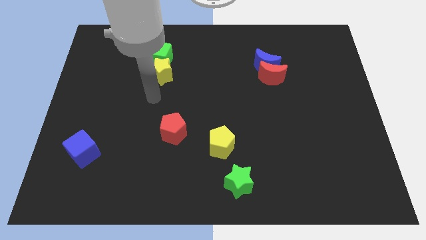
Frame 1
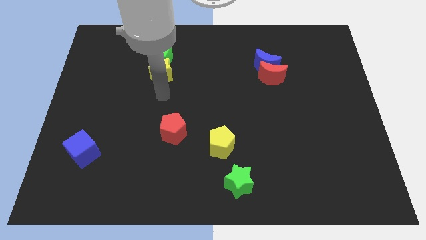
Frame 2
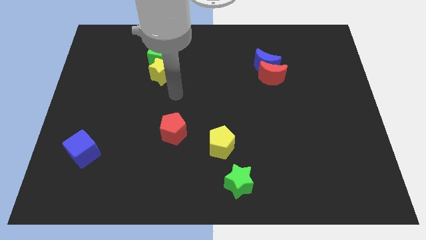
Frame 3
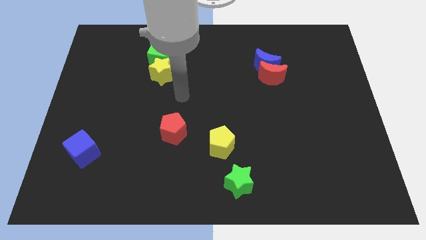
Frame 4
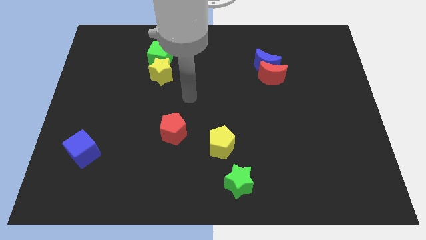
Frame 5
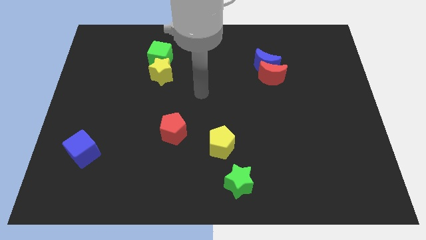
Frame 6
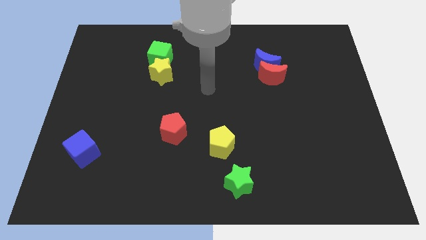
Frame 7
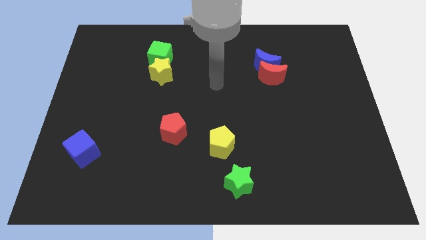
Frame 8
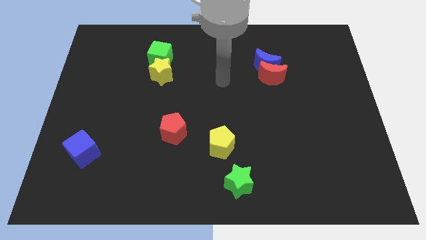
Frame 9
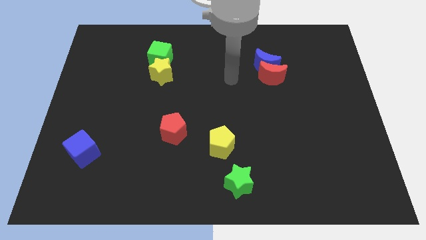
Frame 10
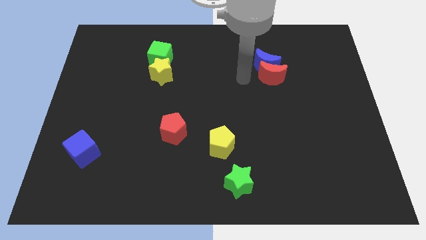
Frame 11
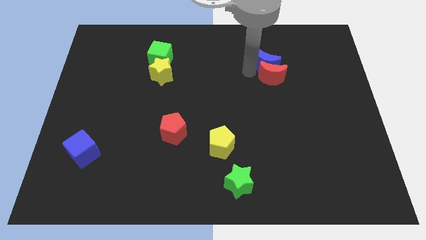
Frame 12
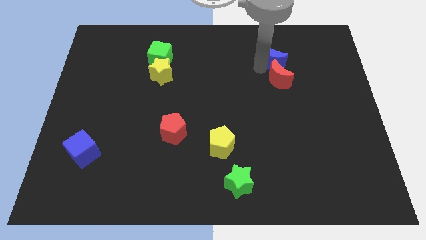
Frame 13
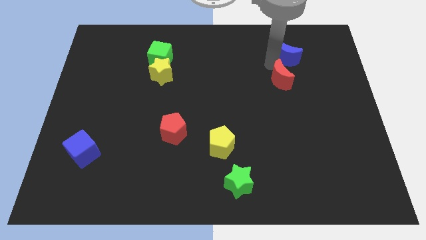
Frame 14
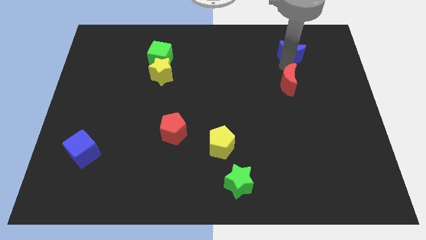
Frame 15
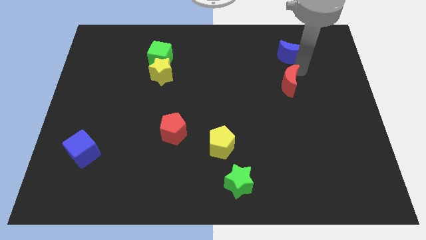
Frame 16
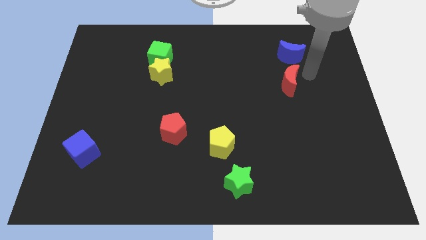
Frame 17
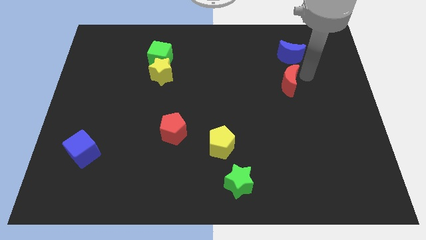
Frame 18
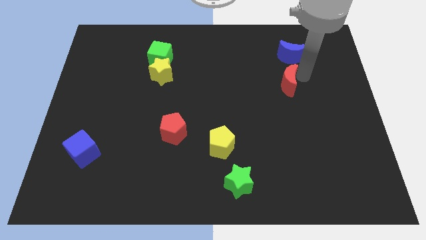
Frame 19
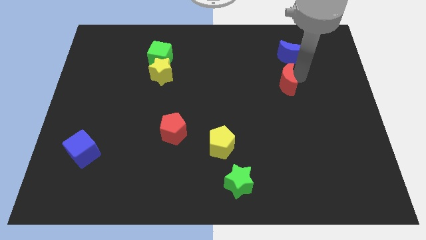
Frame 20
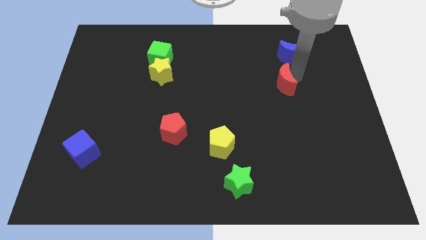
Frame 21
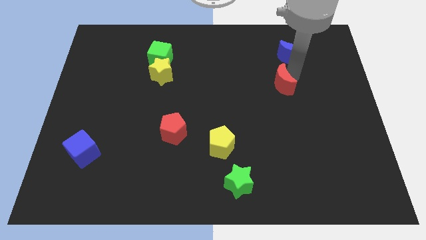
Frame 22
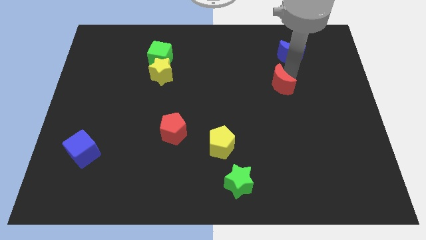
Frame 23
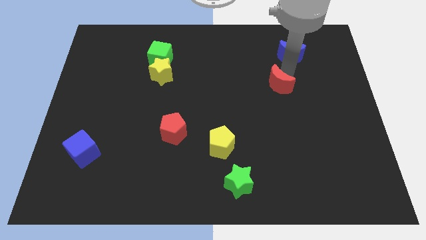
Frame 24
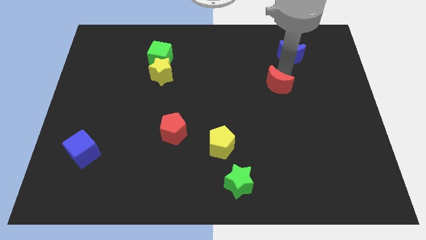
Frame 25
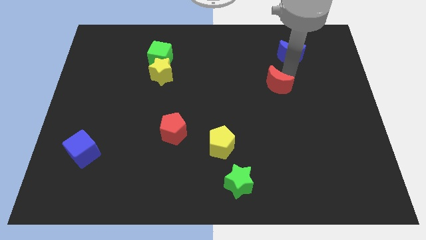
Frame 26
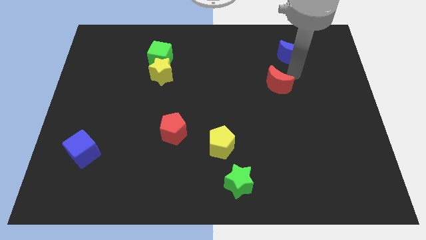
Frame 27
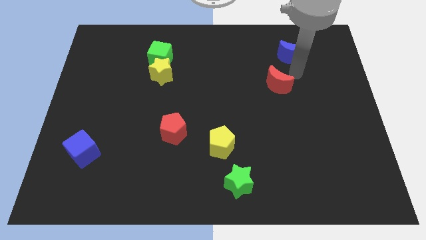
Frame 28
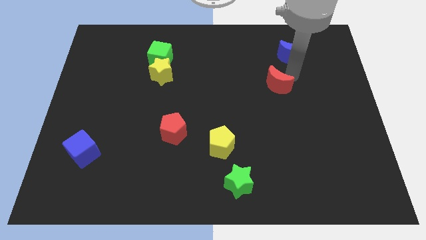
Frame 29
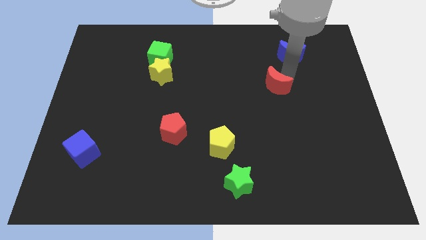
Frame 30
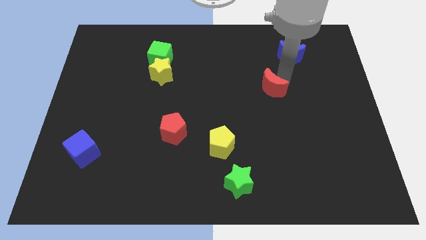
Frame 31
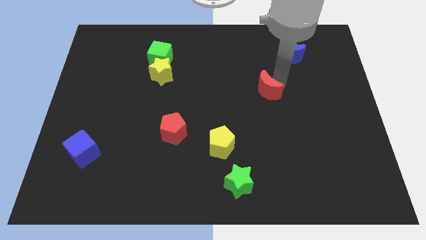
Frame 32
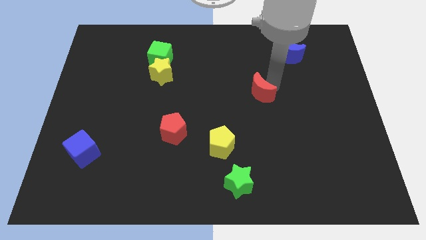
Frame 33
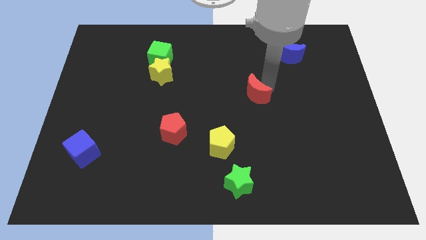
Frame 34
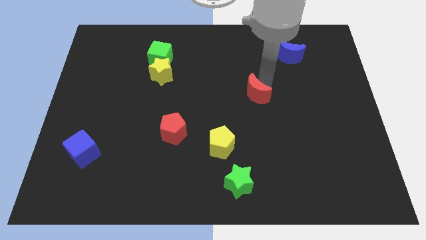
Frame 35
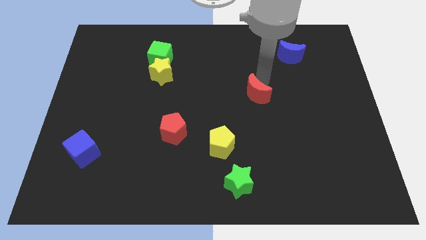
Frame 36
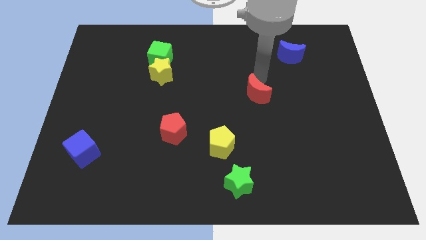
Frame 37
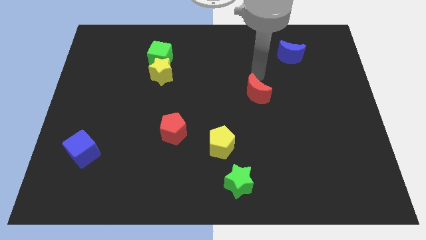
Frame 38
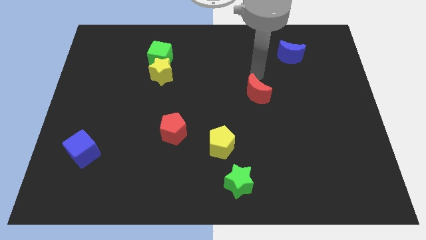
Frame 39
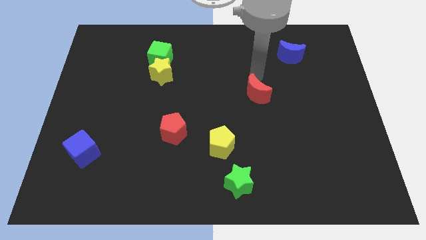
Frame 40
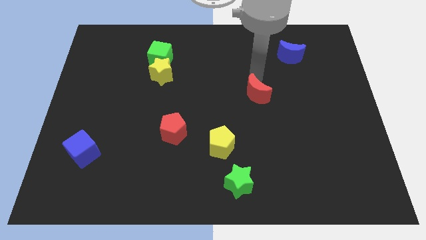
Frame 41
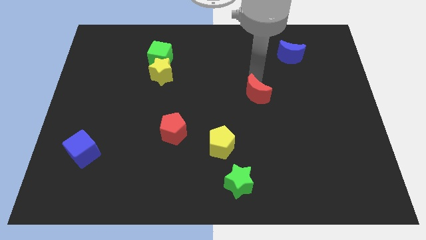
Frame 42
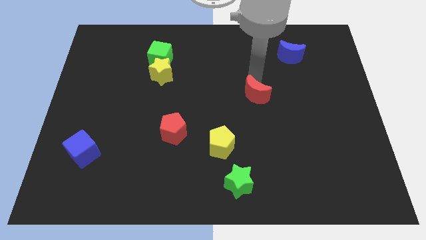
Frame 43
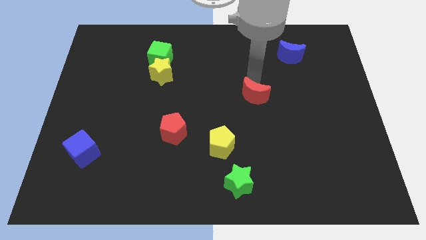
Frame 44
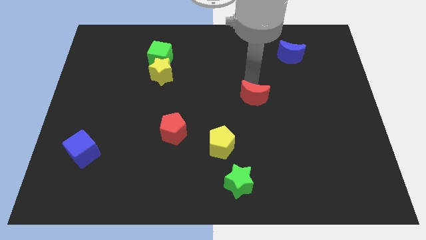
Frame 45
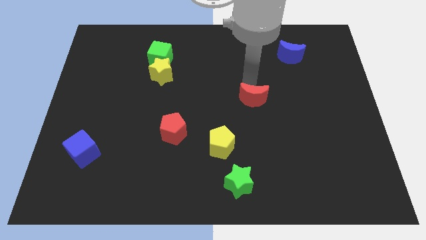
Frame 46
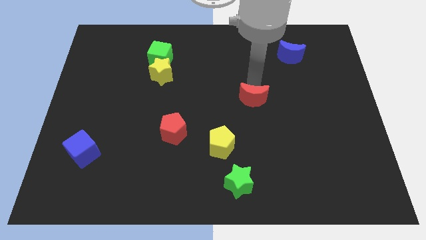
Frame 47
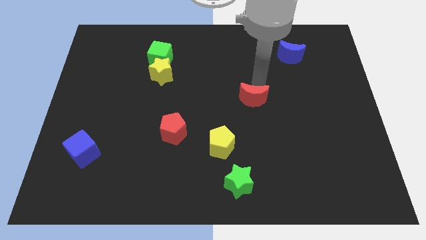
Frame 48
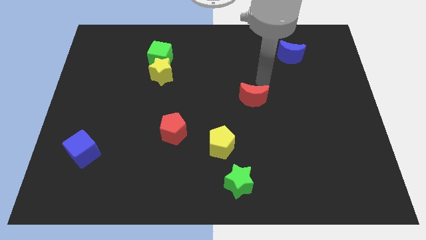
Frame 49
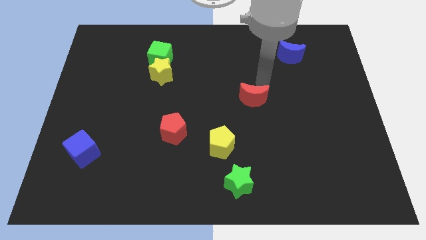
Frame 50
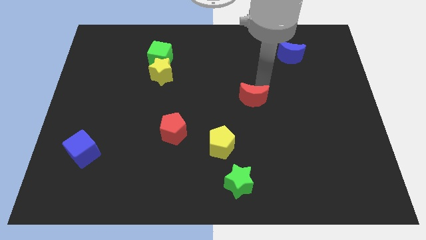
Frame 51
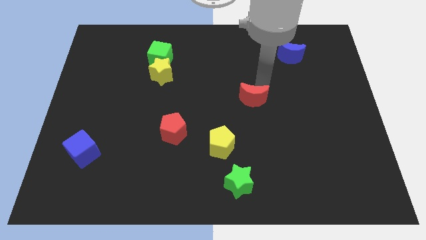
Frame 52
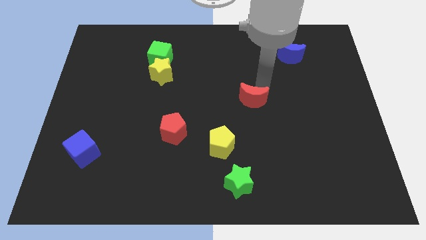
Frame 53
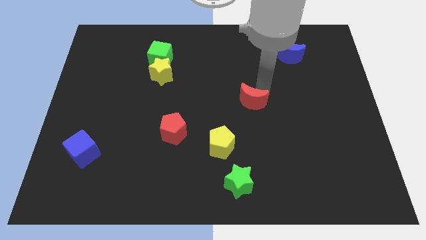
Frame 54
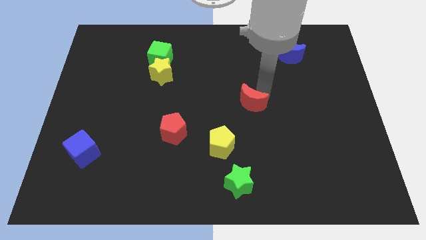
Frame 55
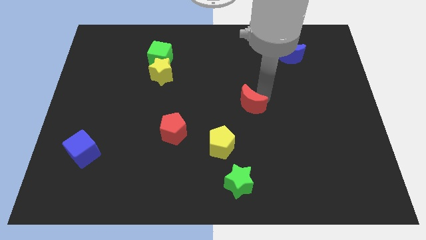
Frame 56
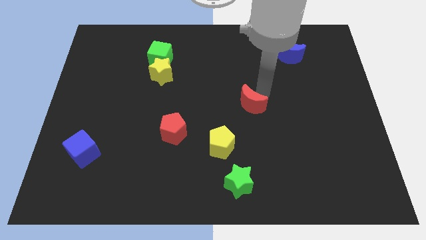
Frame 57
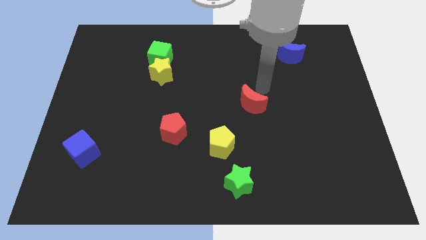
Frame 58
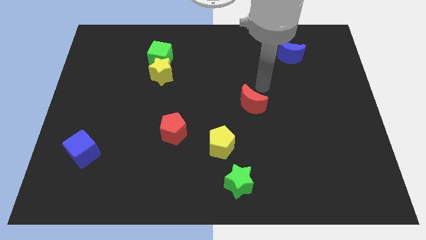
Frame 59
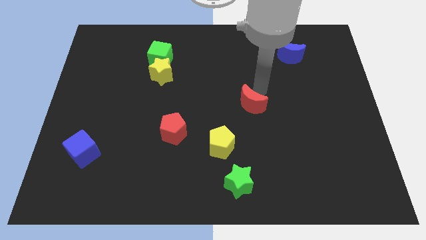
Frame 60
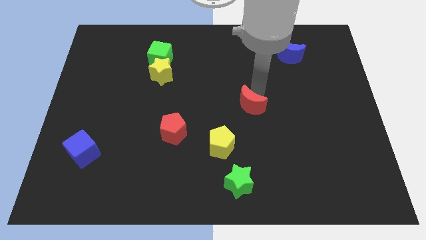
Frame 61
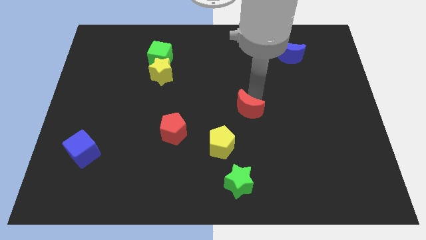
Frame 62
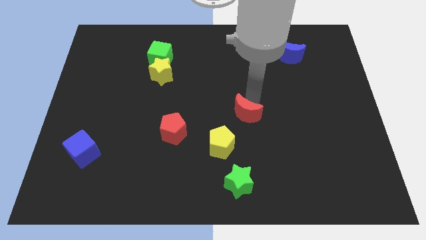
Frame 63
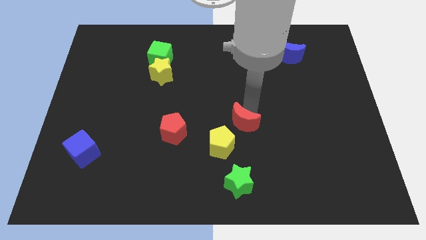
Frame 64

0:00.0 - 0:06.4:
push the red moon right of the red pentagon

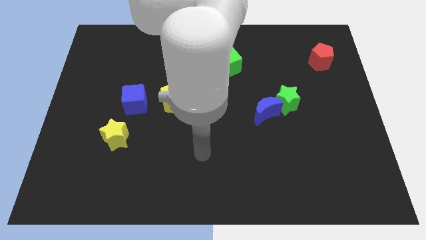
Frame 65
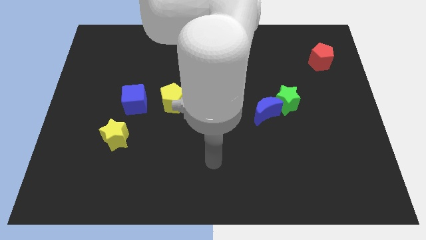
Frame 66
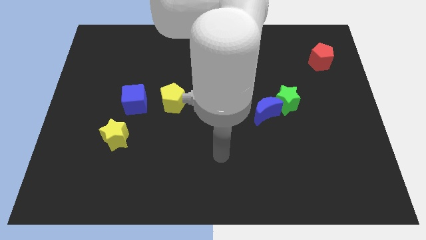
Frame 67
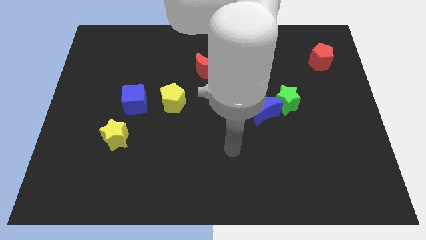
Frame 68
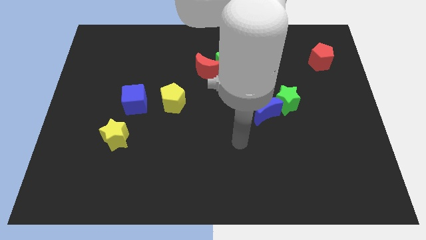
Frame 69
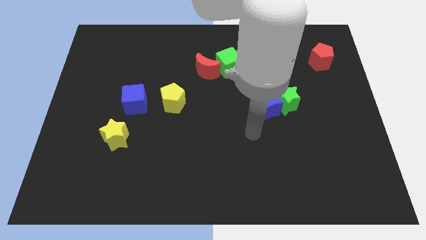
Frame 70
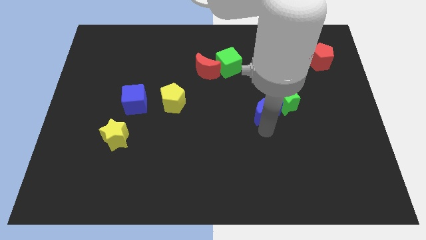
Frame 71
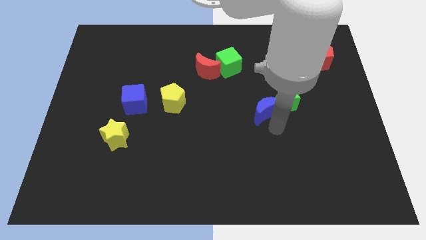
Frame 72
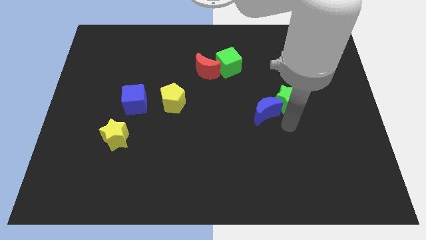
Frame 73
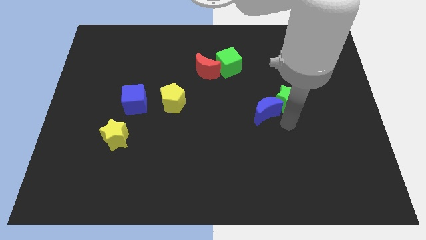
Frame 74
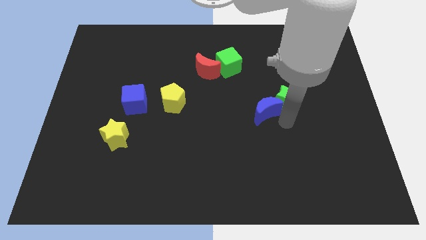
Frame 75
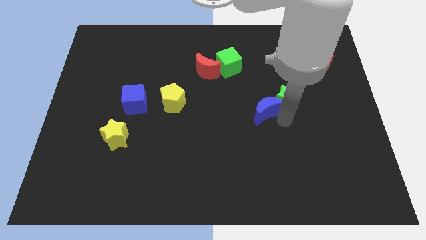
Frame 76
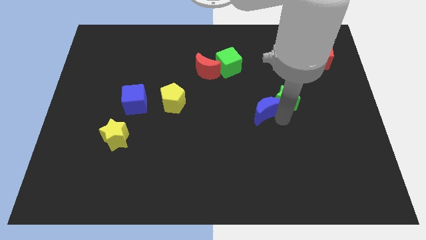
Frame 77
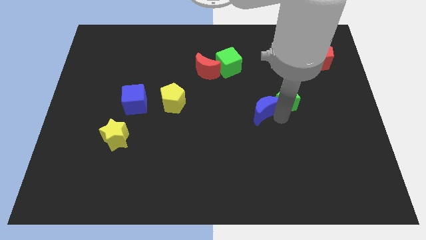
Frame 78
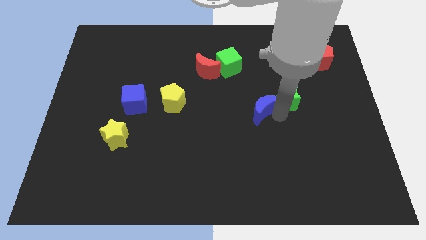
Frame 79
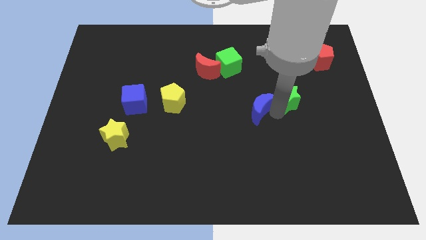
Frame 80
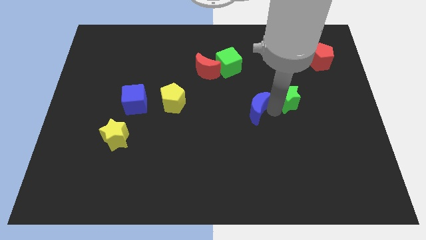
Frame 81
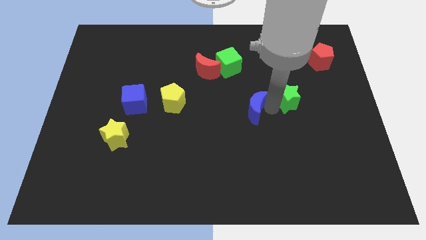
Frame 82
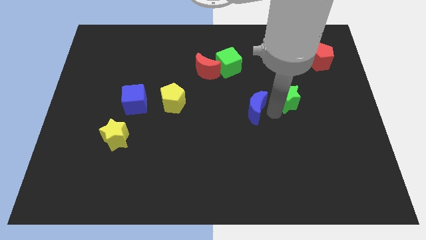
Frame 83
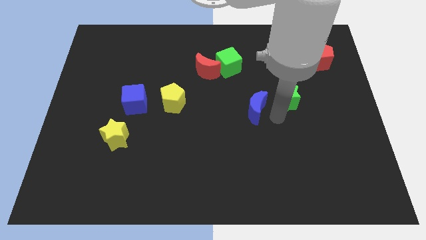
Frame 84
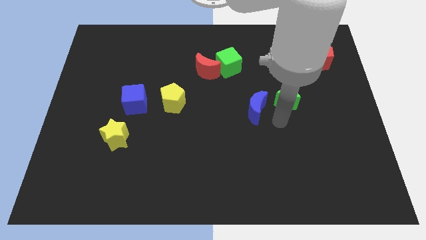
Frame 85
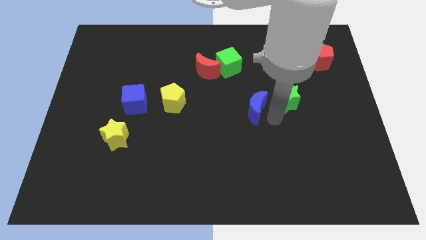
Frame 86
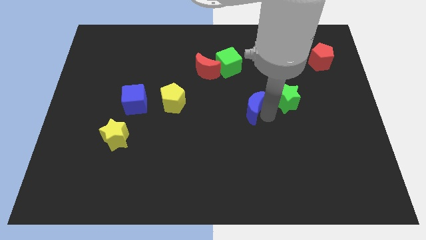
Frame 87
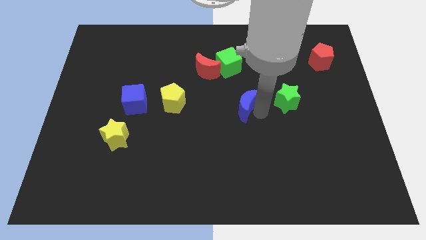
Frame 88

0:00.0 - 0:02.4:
put the blue moon to the bottom of the green cube
